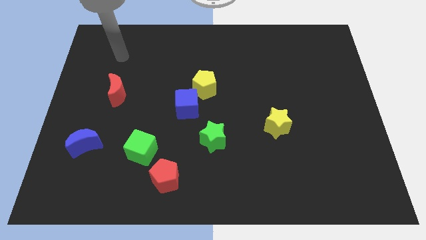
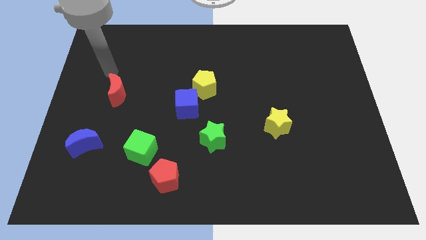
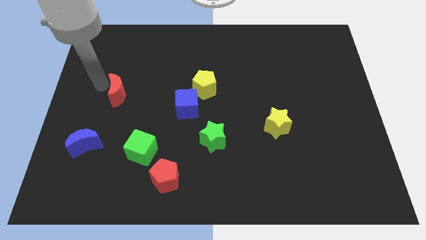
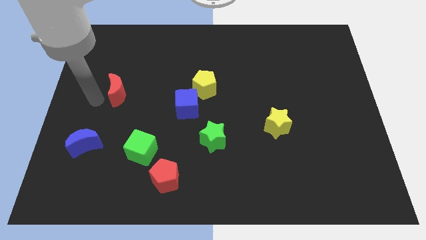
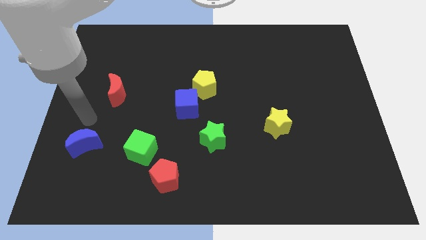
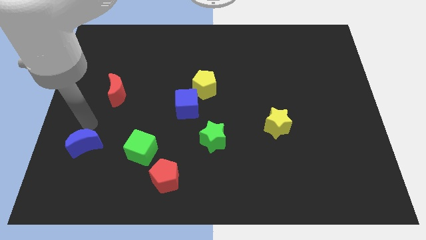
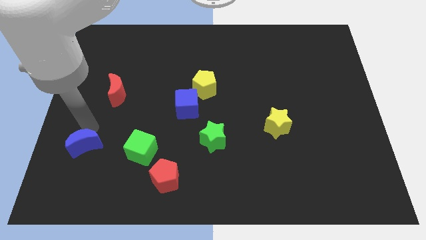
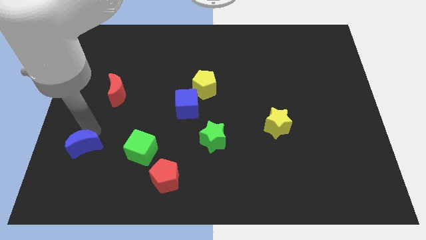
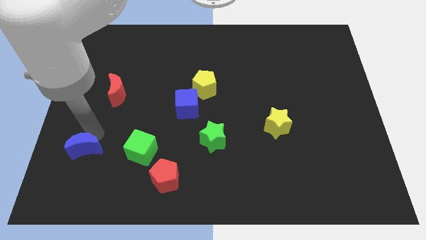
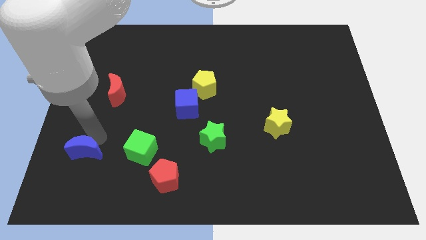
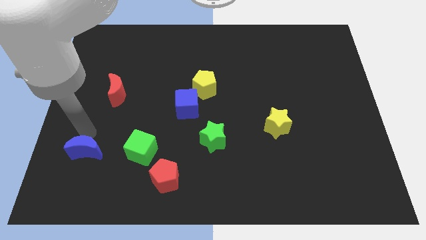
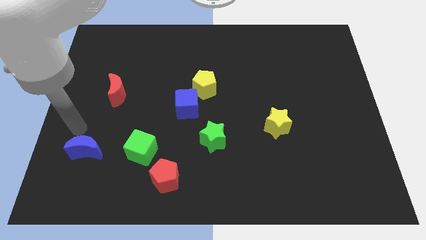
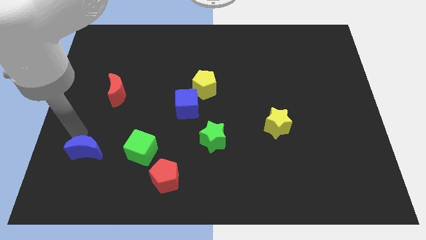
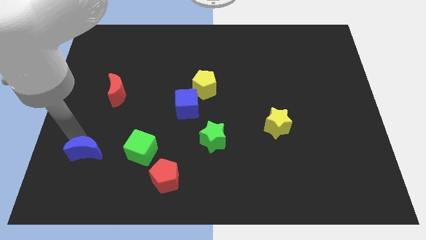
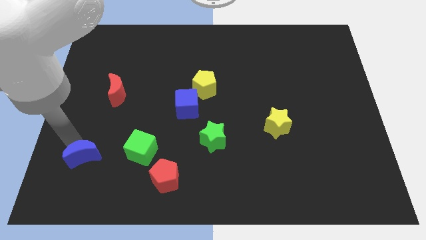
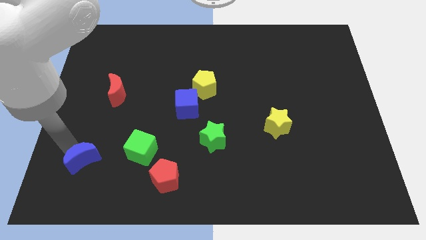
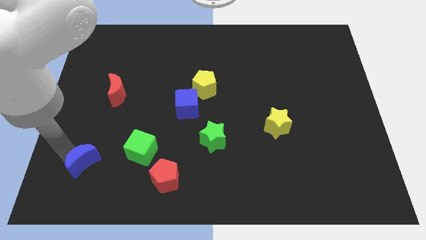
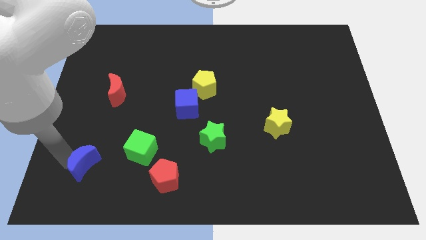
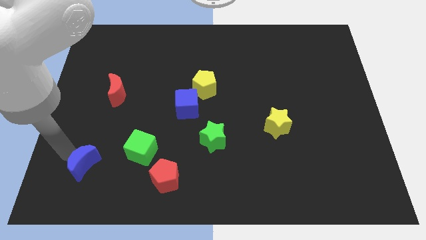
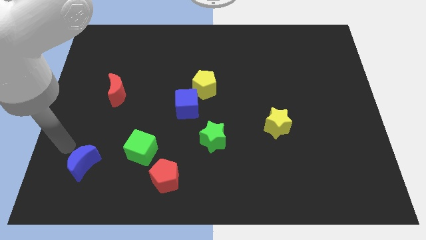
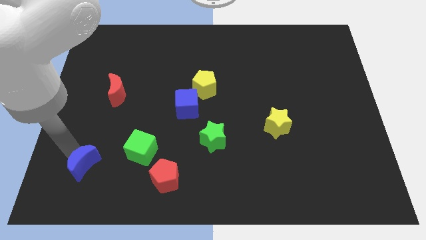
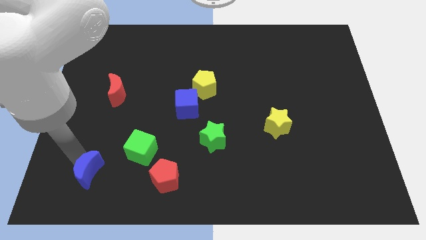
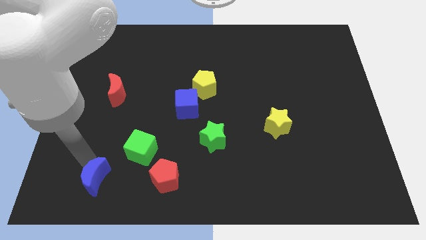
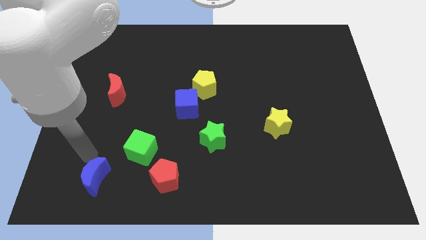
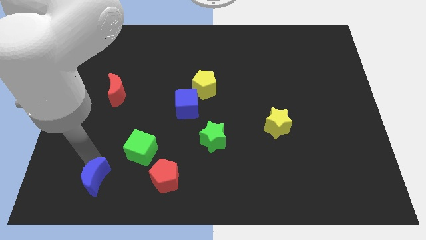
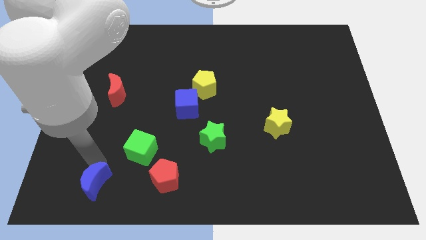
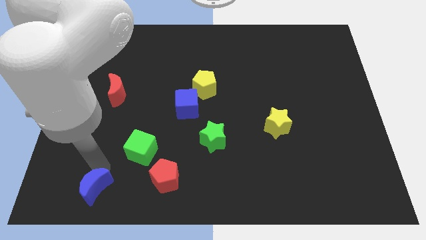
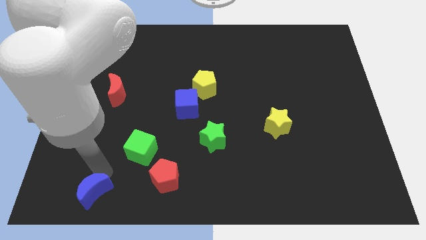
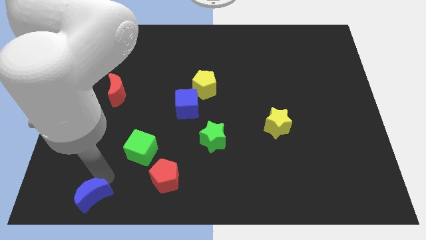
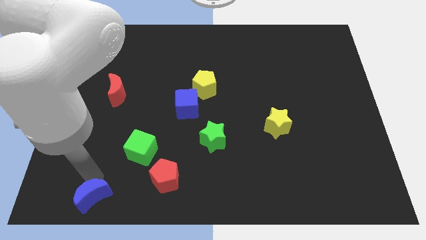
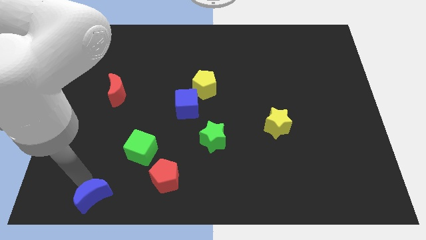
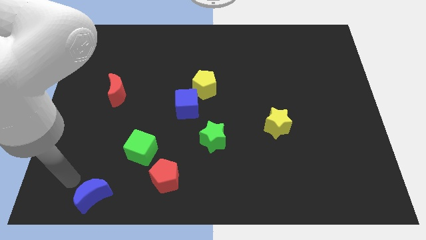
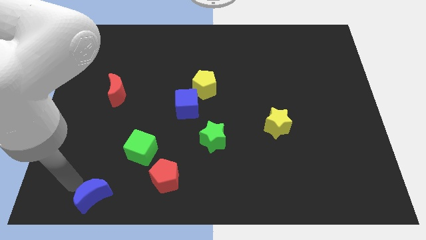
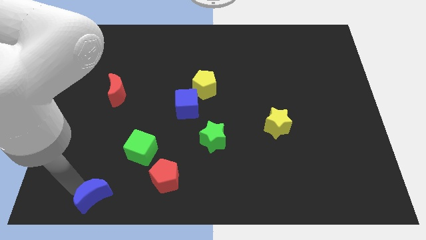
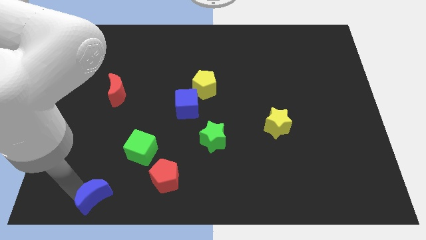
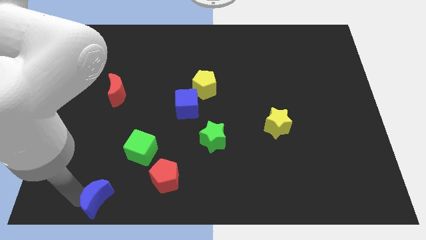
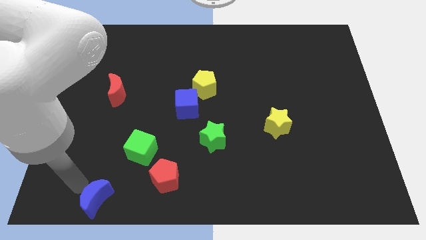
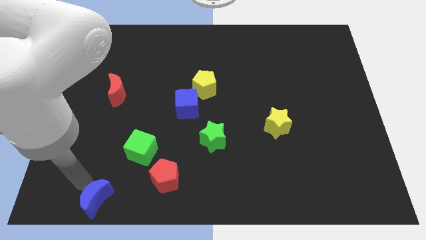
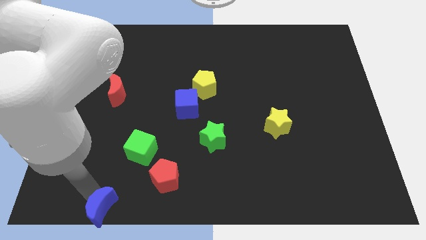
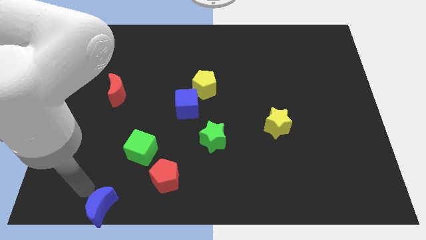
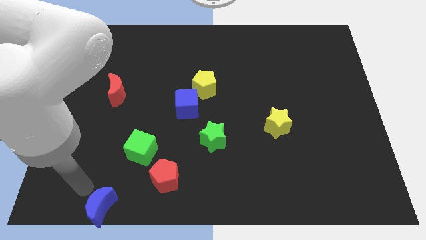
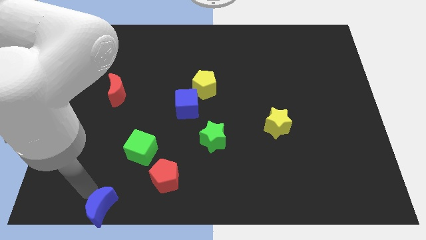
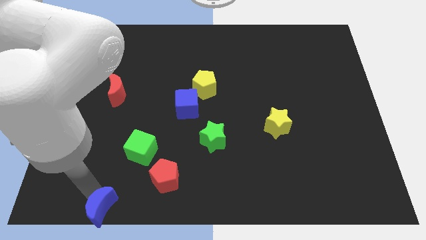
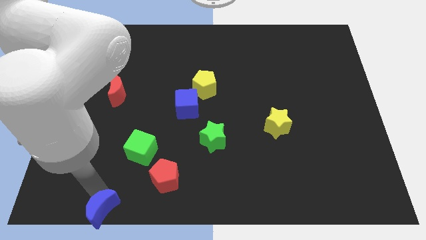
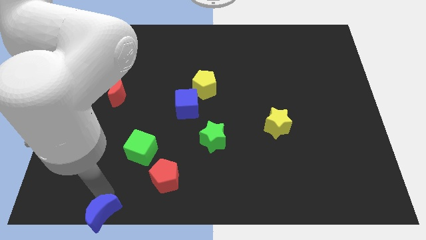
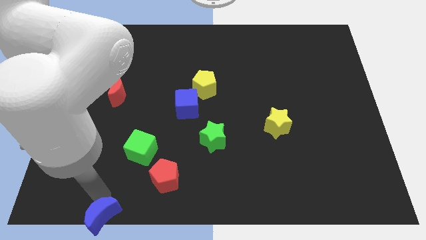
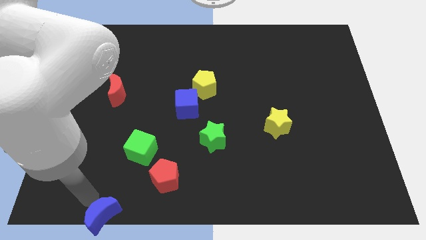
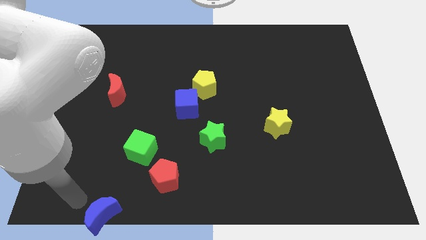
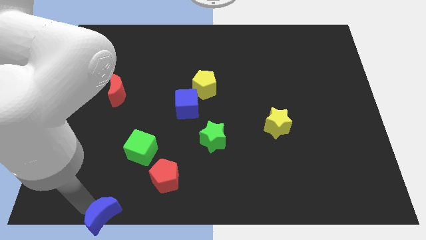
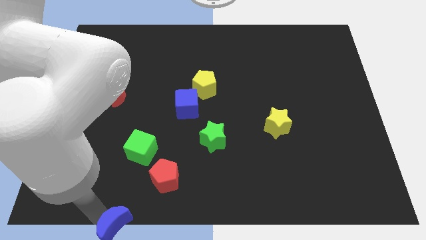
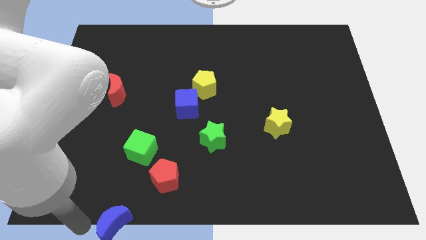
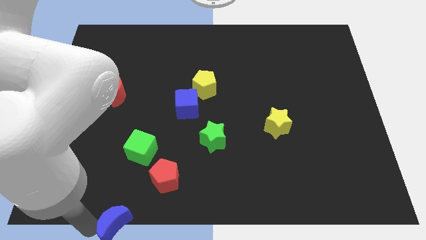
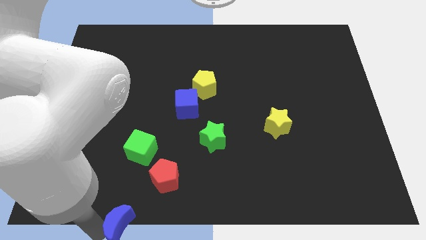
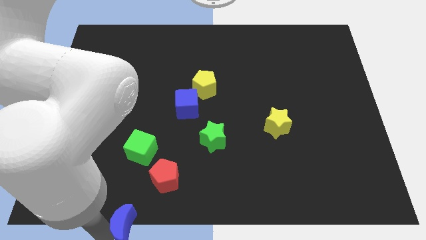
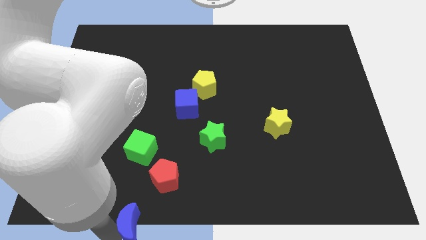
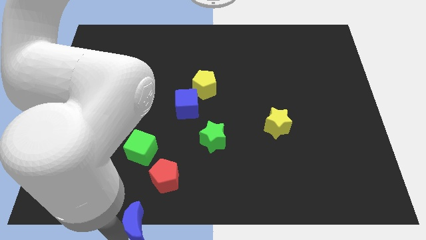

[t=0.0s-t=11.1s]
put the blue moon to the bottom
